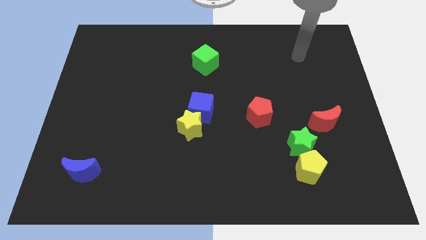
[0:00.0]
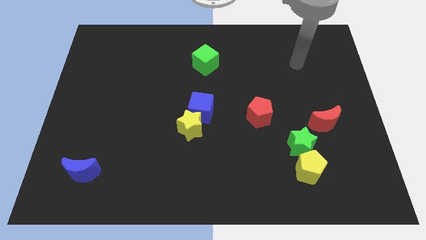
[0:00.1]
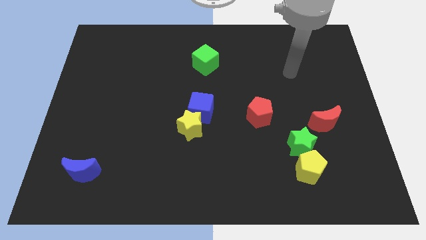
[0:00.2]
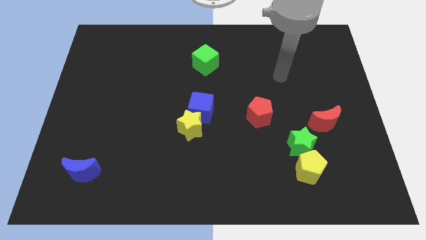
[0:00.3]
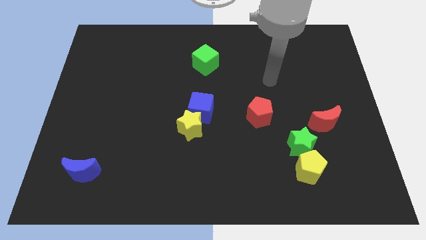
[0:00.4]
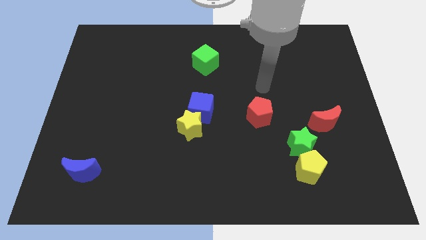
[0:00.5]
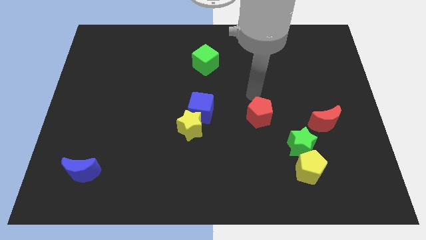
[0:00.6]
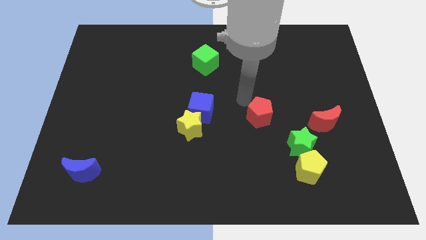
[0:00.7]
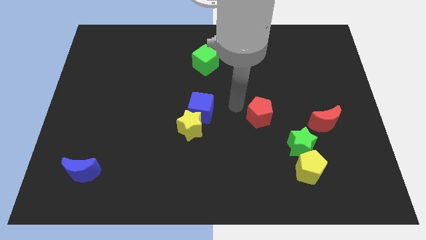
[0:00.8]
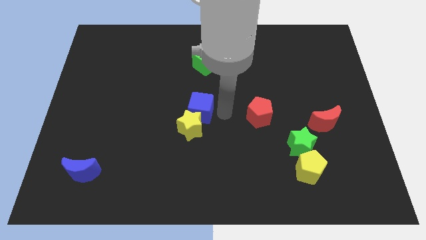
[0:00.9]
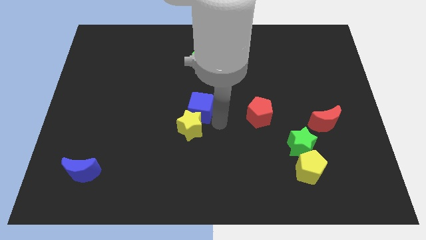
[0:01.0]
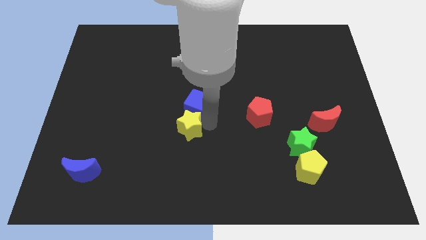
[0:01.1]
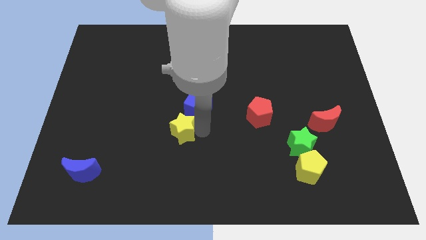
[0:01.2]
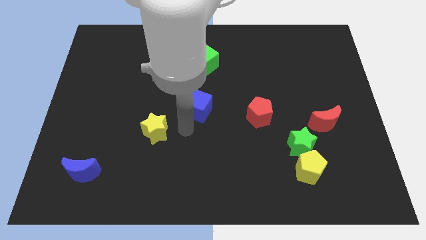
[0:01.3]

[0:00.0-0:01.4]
pull the blue cube apart from the yellow star

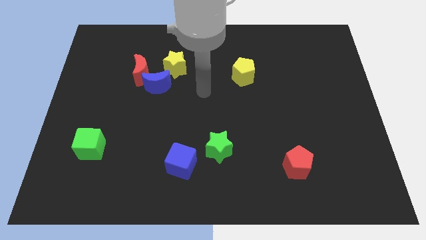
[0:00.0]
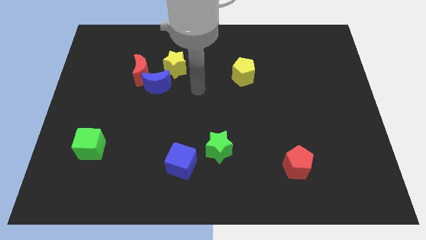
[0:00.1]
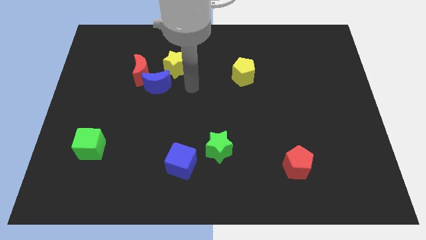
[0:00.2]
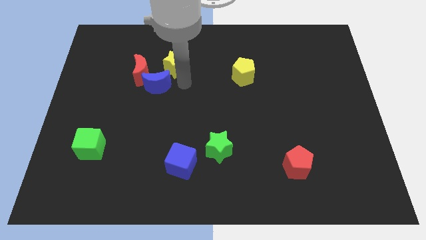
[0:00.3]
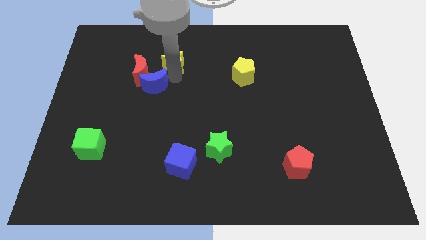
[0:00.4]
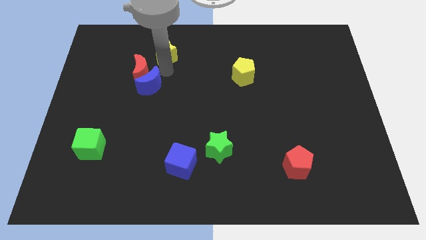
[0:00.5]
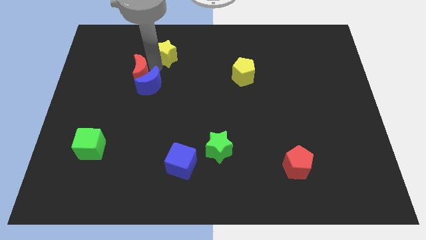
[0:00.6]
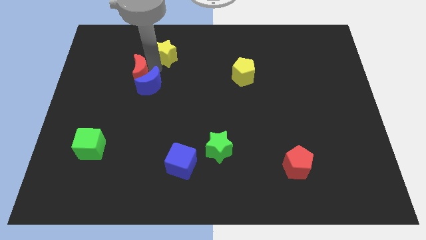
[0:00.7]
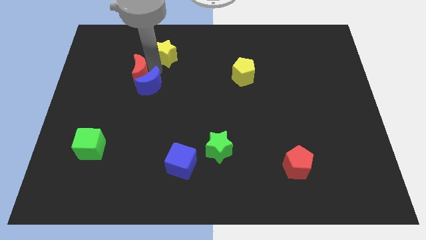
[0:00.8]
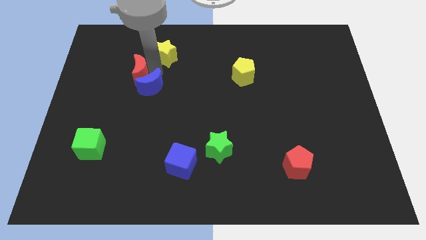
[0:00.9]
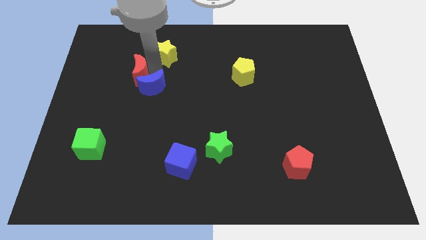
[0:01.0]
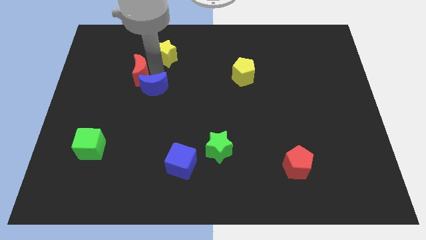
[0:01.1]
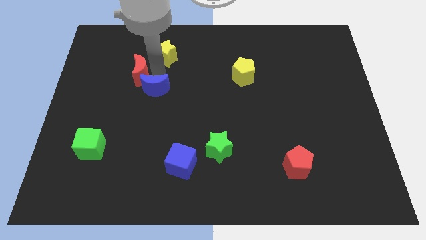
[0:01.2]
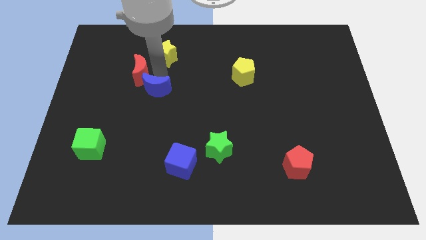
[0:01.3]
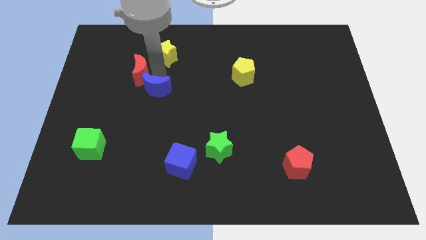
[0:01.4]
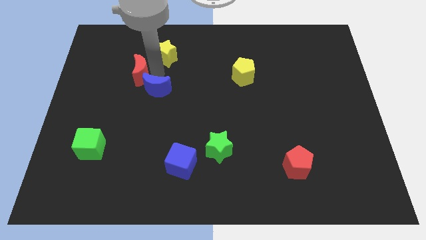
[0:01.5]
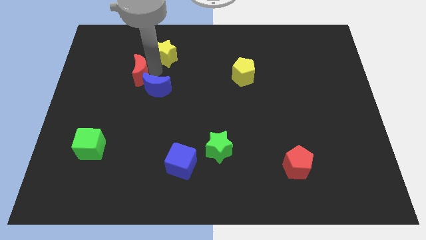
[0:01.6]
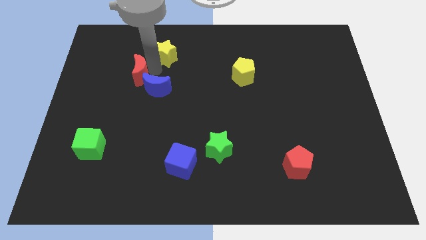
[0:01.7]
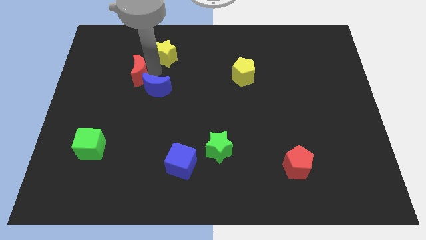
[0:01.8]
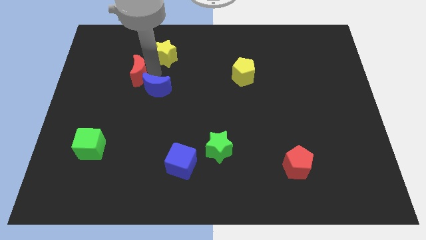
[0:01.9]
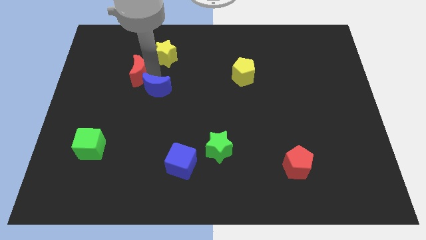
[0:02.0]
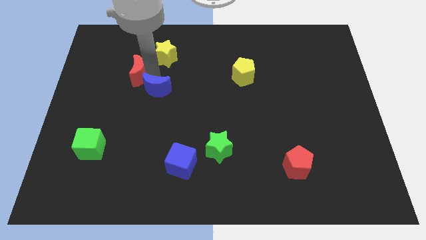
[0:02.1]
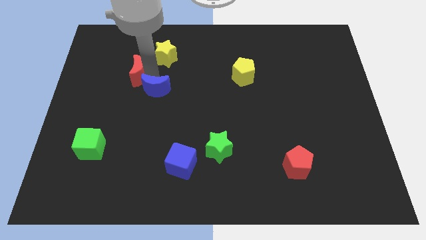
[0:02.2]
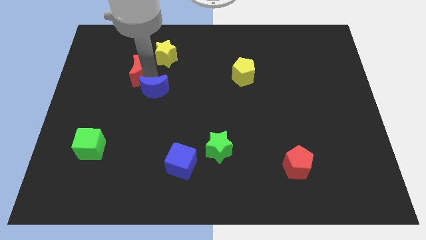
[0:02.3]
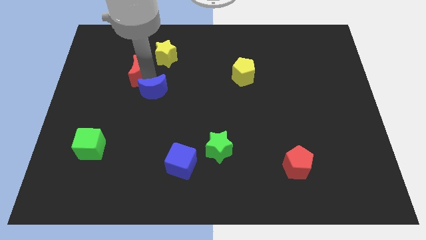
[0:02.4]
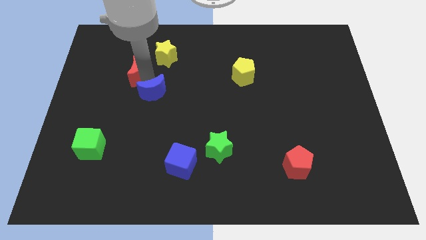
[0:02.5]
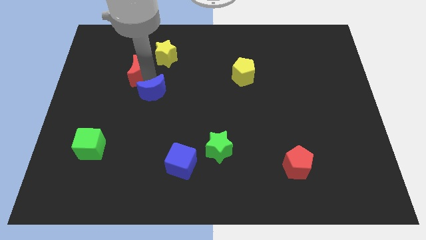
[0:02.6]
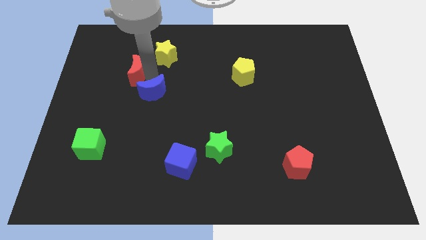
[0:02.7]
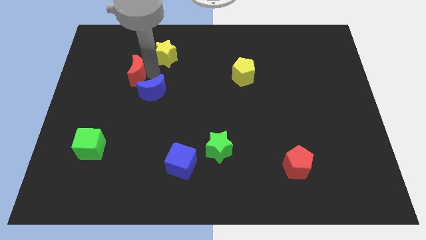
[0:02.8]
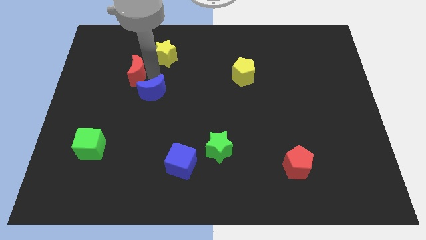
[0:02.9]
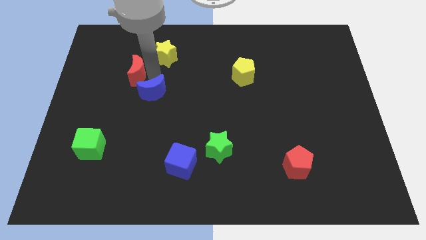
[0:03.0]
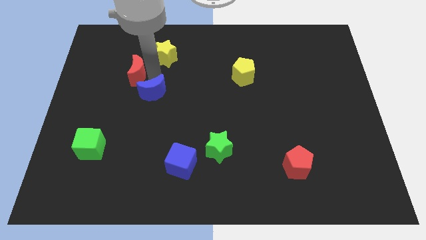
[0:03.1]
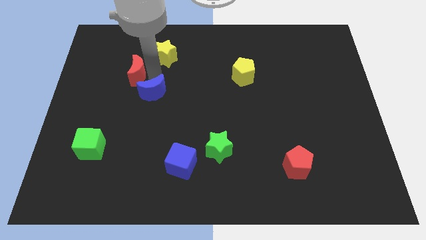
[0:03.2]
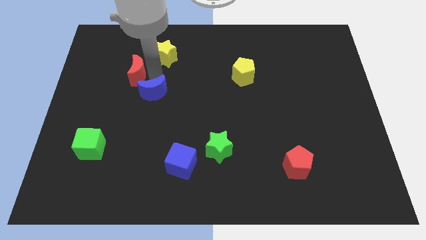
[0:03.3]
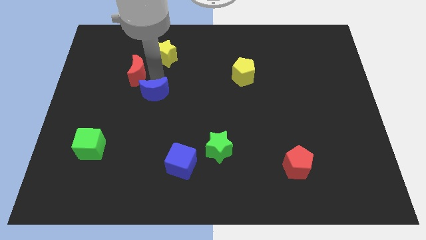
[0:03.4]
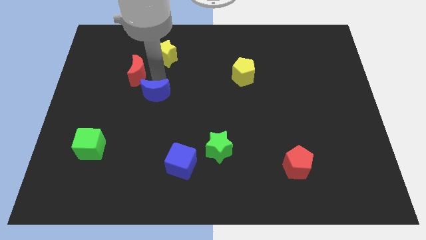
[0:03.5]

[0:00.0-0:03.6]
move the blue moon away from the red moon and yellow star

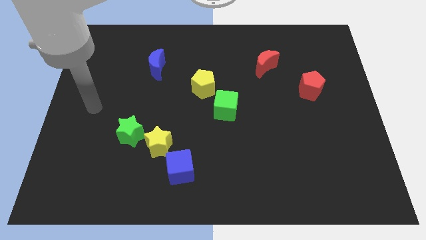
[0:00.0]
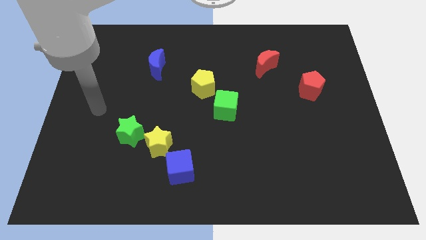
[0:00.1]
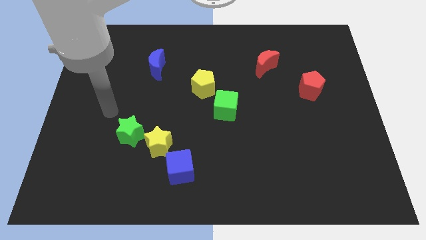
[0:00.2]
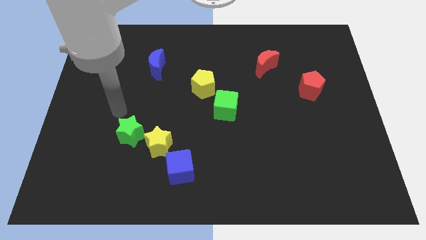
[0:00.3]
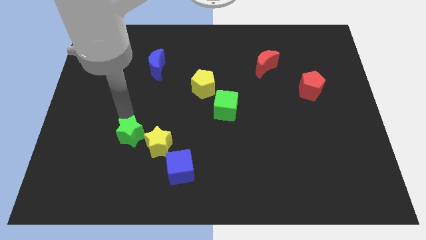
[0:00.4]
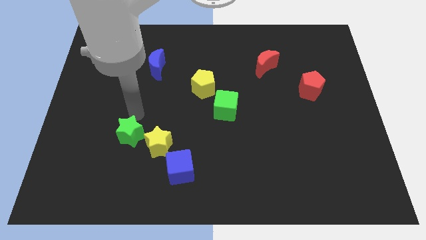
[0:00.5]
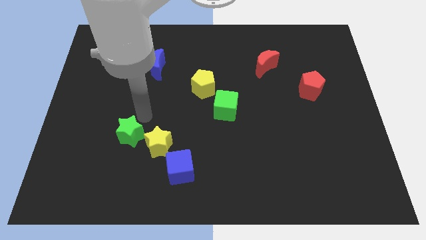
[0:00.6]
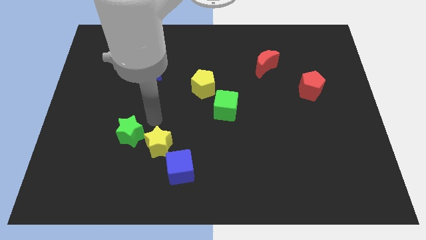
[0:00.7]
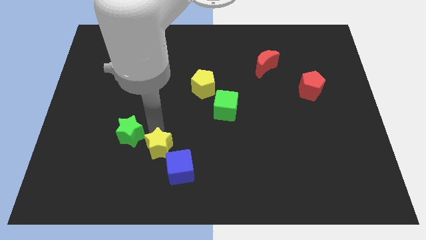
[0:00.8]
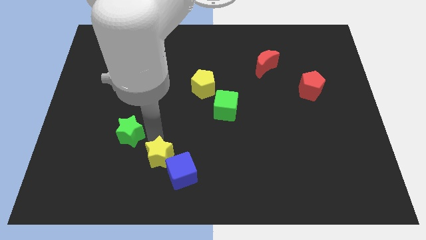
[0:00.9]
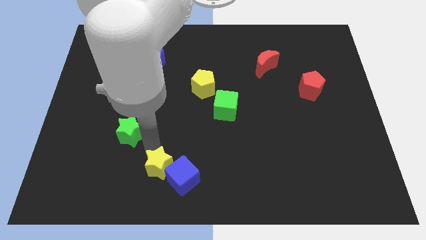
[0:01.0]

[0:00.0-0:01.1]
pull the green star apart from the yellow star

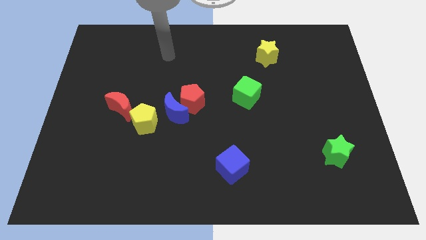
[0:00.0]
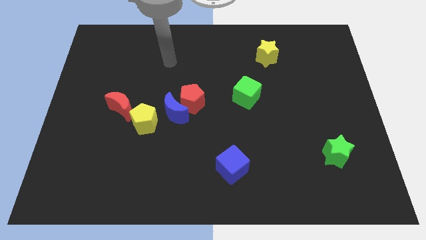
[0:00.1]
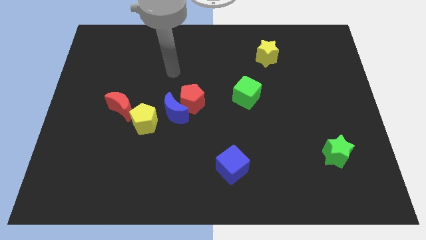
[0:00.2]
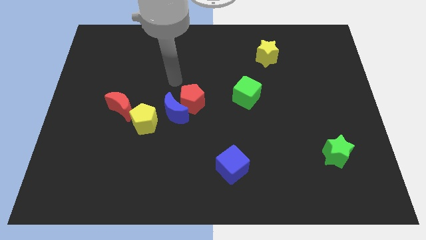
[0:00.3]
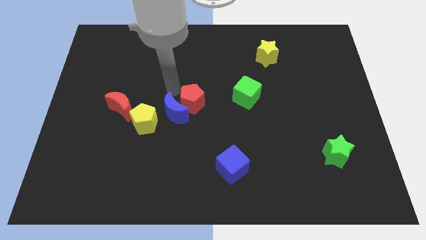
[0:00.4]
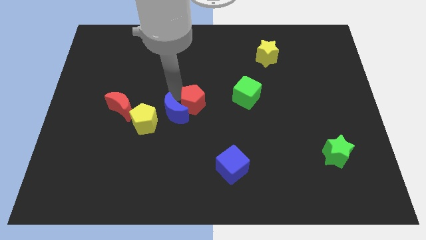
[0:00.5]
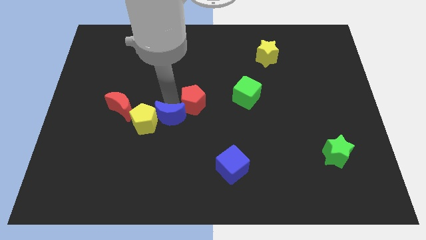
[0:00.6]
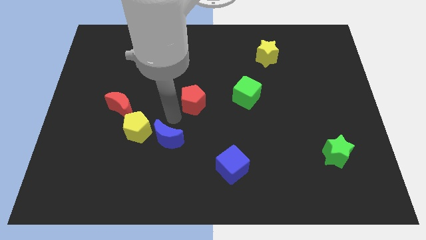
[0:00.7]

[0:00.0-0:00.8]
move the red pentagon away from the blue moon

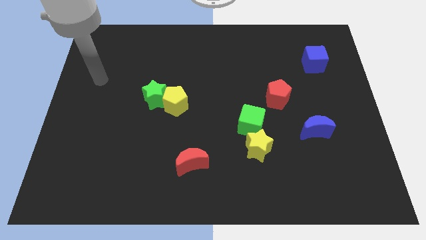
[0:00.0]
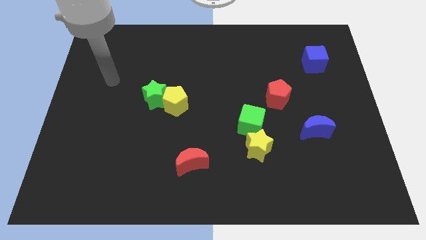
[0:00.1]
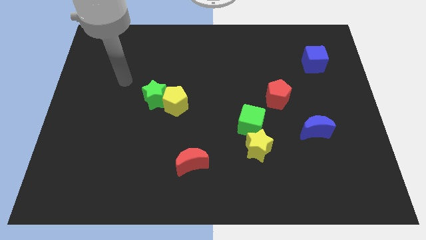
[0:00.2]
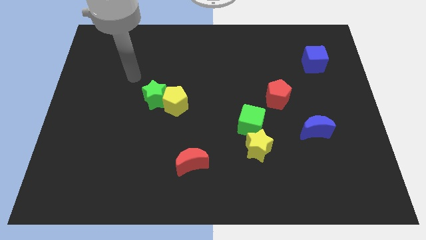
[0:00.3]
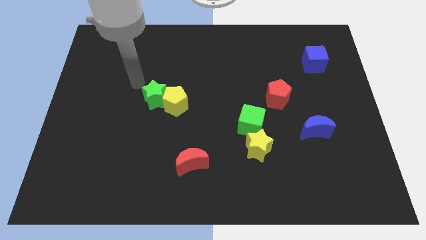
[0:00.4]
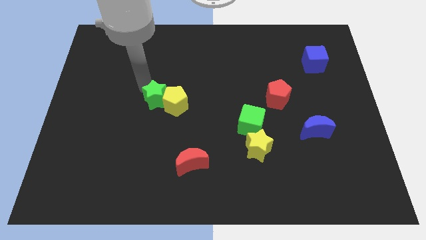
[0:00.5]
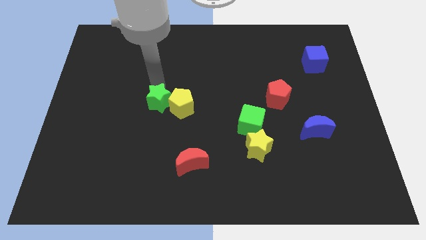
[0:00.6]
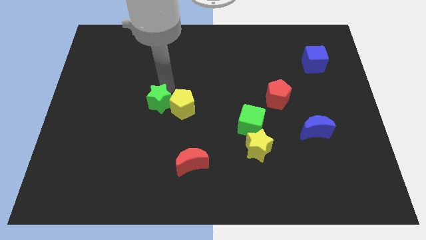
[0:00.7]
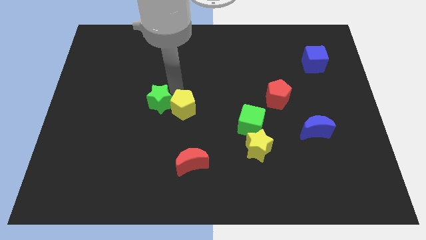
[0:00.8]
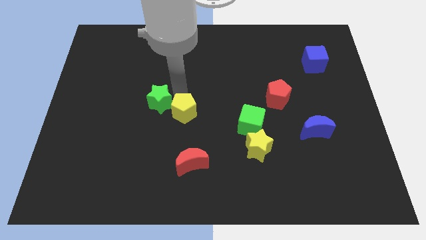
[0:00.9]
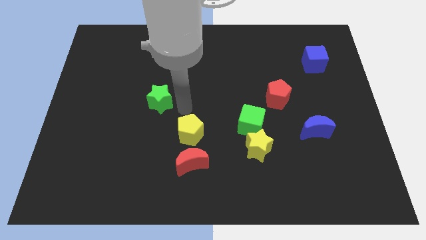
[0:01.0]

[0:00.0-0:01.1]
move the green star away from the yellow pentagon

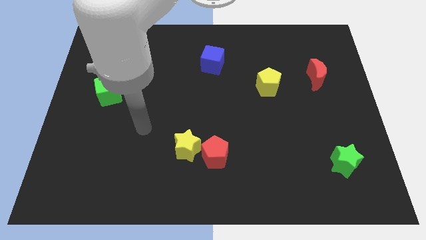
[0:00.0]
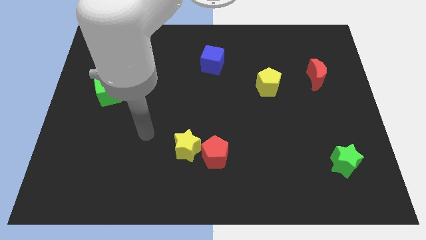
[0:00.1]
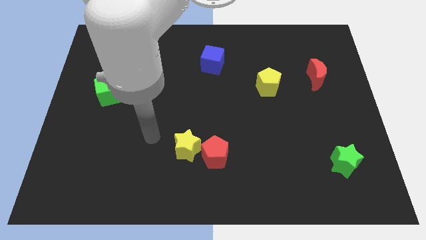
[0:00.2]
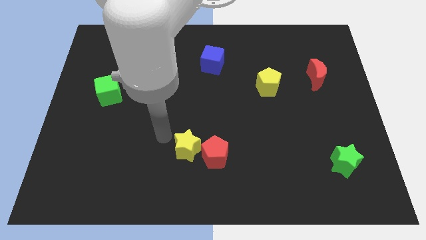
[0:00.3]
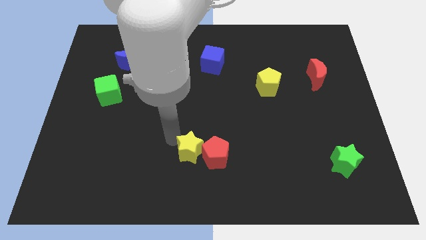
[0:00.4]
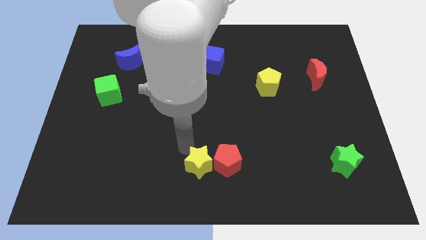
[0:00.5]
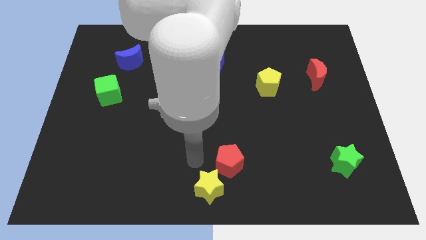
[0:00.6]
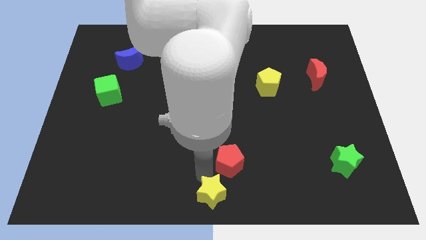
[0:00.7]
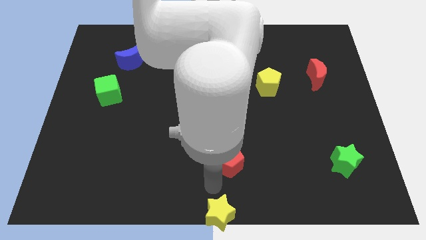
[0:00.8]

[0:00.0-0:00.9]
move the red pentagon away from the yellow star

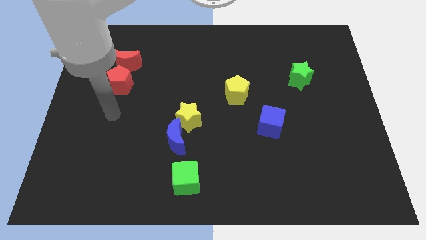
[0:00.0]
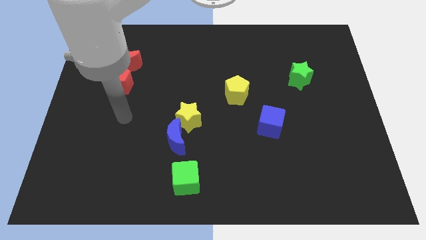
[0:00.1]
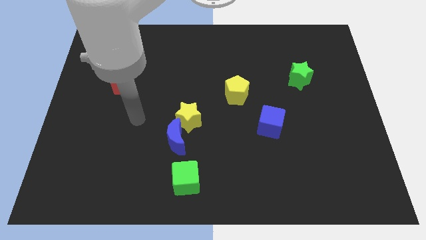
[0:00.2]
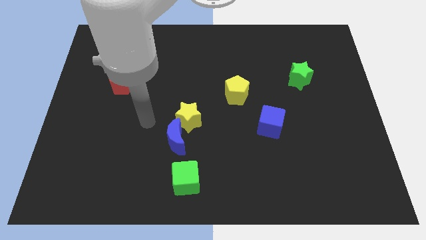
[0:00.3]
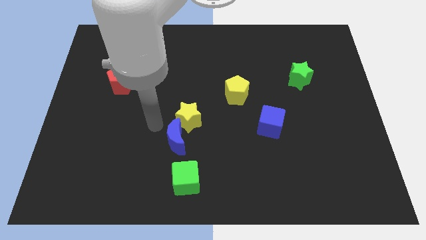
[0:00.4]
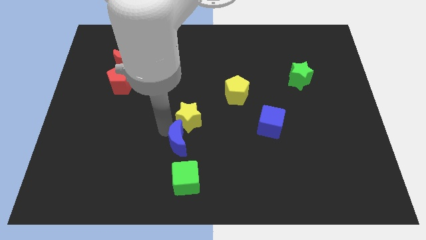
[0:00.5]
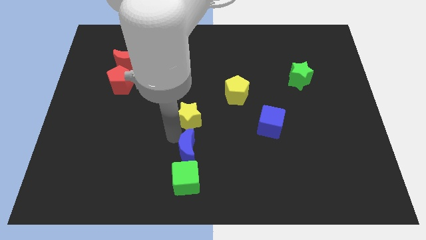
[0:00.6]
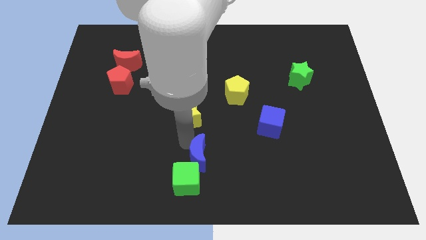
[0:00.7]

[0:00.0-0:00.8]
pull the yellow star apart from the blue moon
